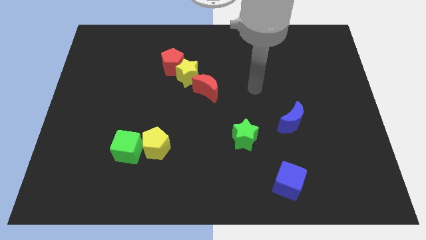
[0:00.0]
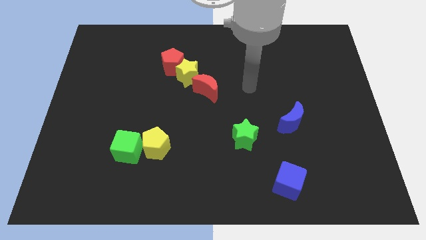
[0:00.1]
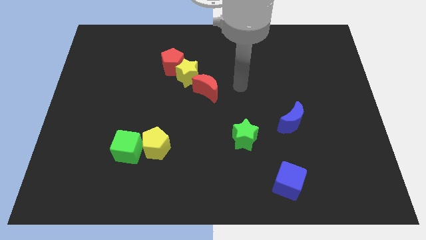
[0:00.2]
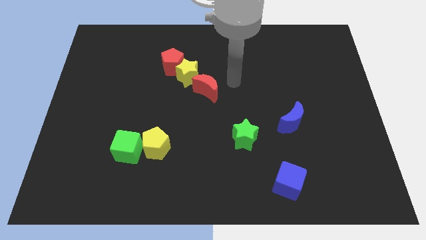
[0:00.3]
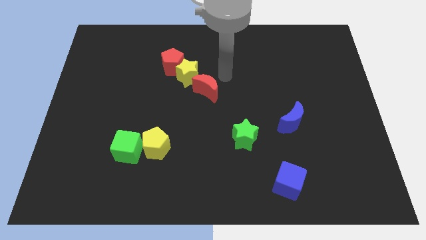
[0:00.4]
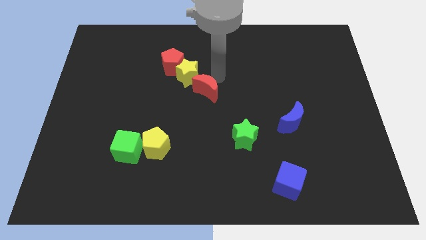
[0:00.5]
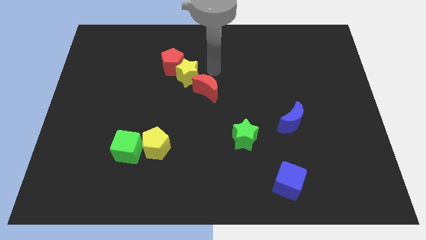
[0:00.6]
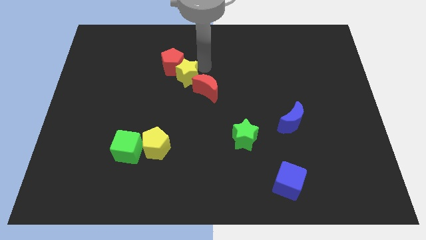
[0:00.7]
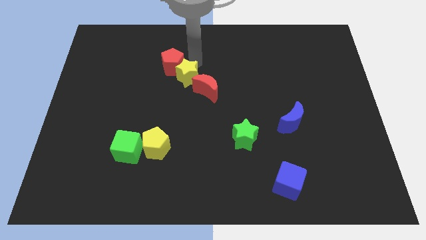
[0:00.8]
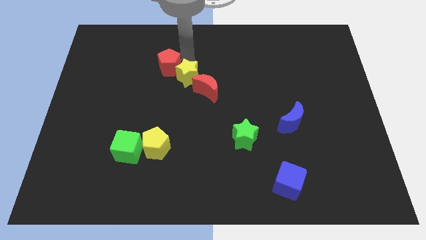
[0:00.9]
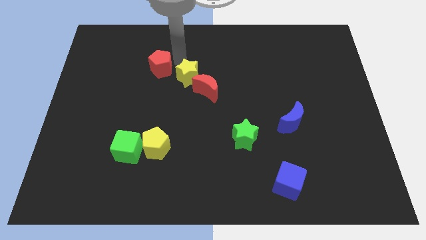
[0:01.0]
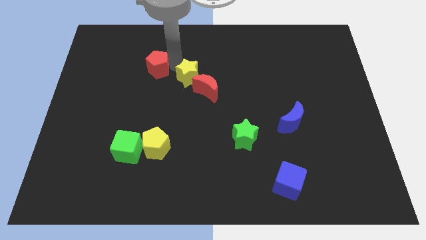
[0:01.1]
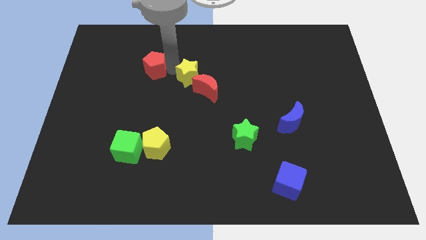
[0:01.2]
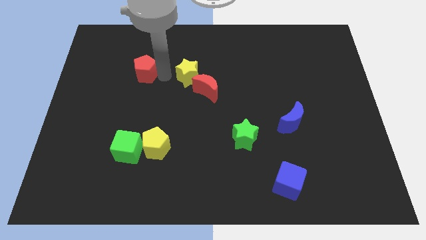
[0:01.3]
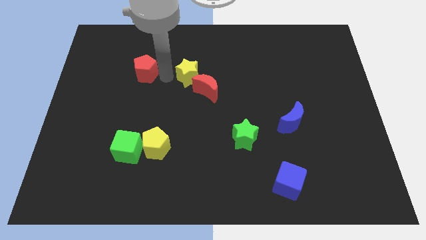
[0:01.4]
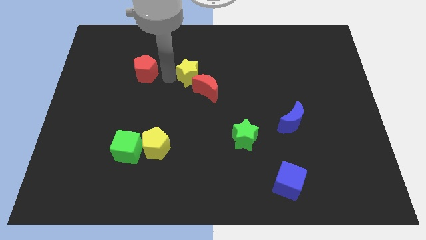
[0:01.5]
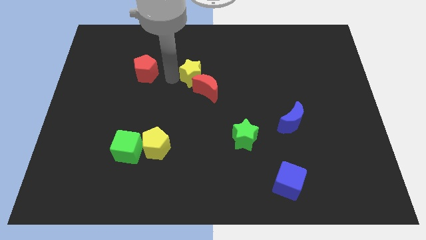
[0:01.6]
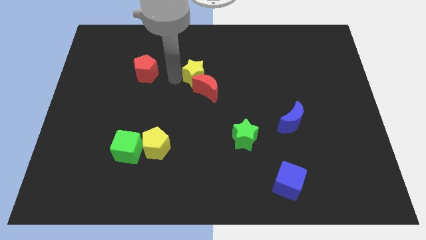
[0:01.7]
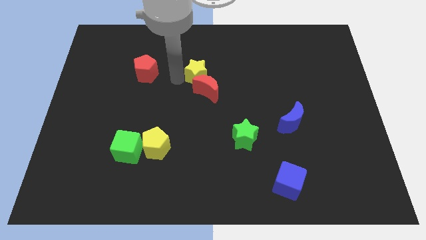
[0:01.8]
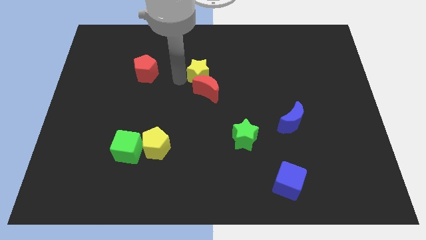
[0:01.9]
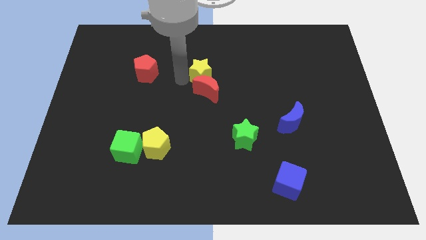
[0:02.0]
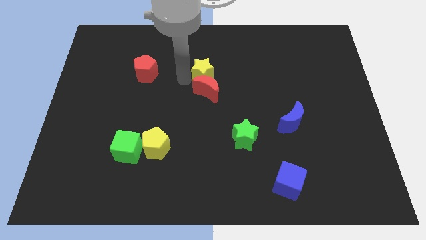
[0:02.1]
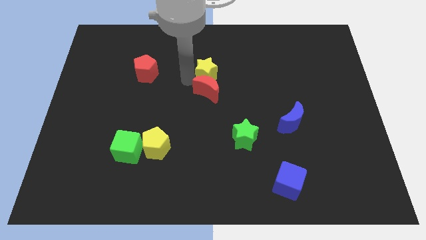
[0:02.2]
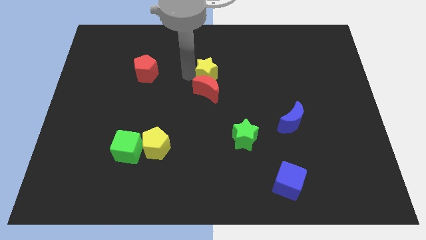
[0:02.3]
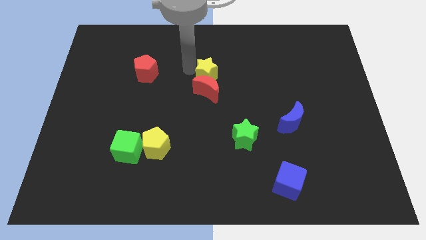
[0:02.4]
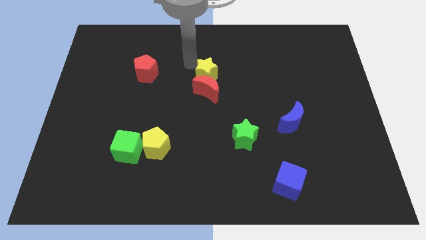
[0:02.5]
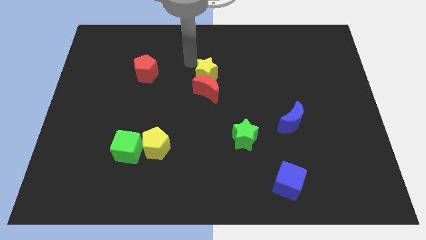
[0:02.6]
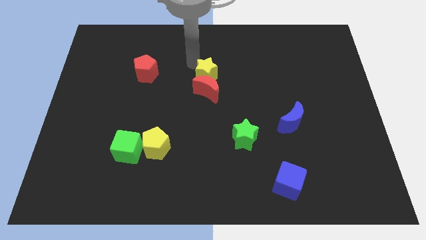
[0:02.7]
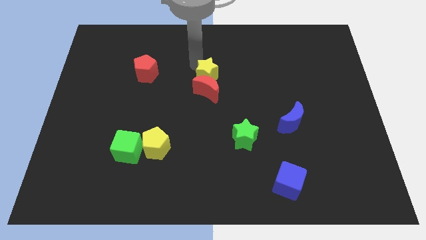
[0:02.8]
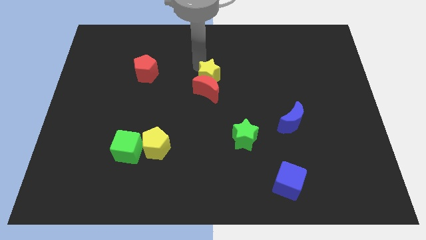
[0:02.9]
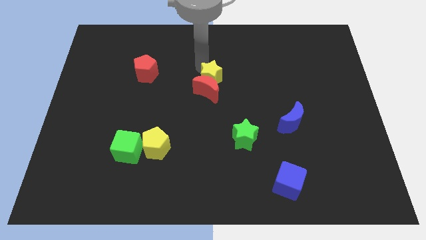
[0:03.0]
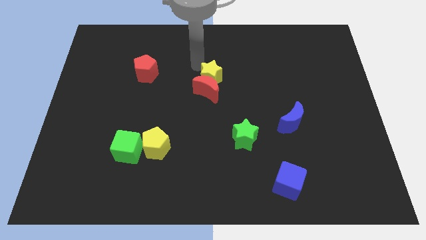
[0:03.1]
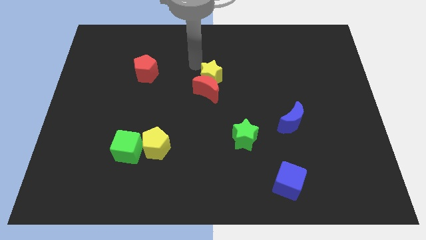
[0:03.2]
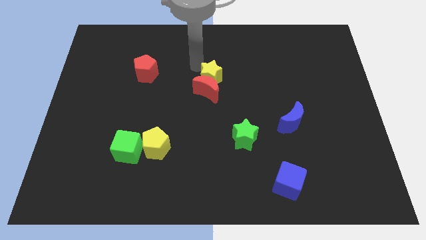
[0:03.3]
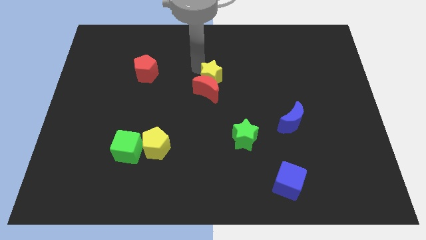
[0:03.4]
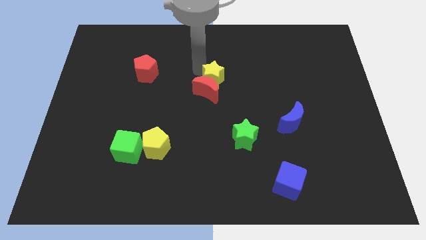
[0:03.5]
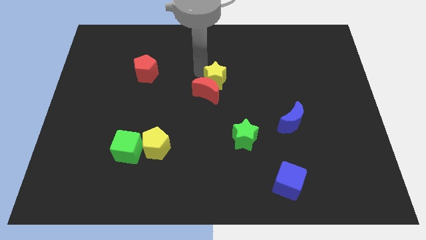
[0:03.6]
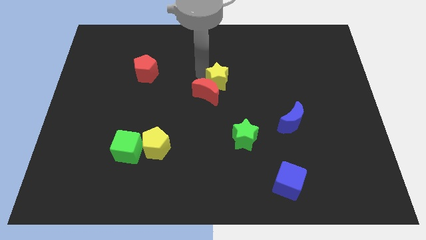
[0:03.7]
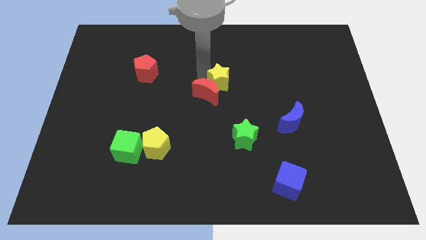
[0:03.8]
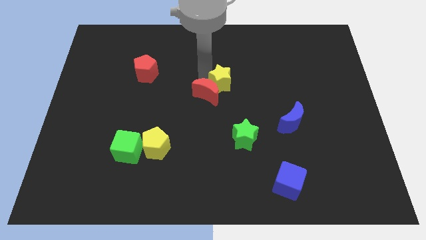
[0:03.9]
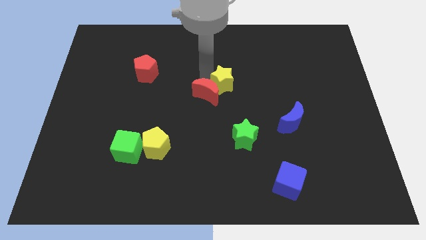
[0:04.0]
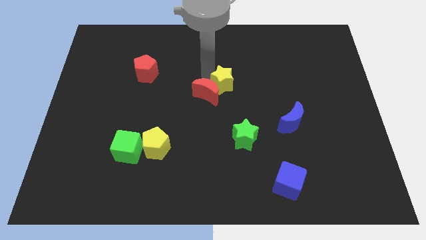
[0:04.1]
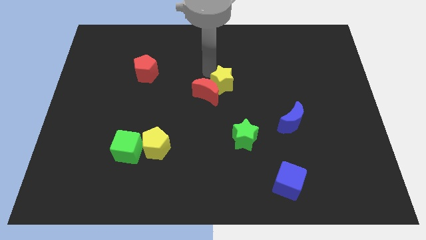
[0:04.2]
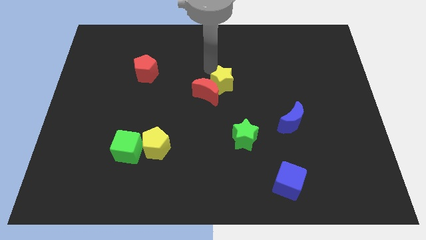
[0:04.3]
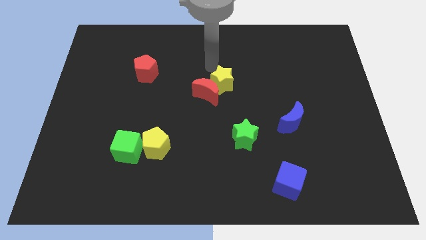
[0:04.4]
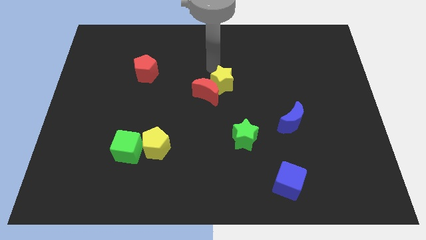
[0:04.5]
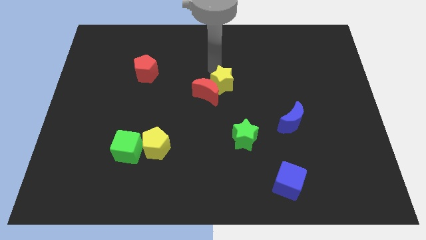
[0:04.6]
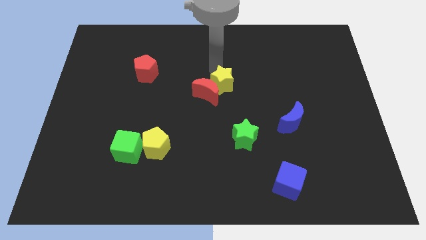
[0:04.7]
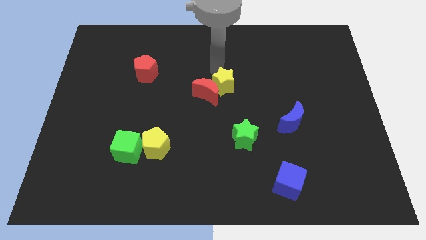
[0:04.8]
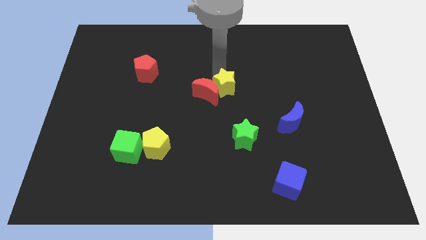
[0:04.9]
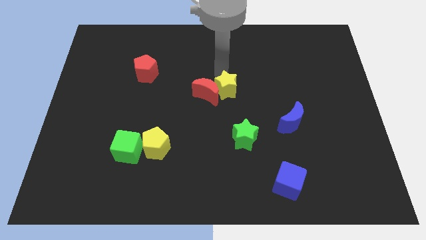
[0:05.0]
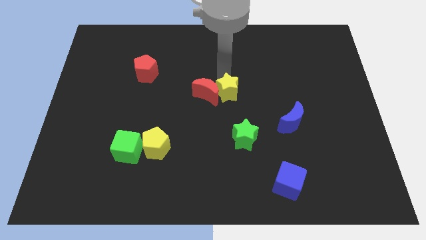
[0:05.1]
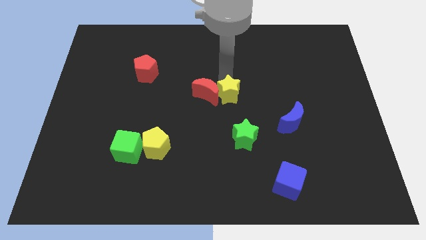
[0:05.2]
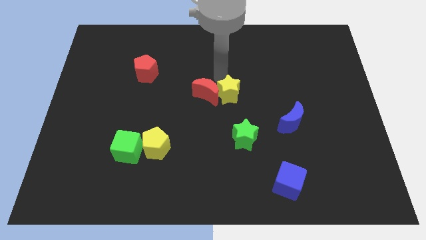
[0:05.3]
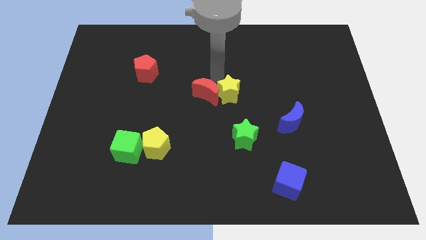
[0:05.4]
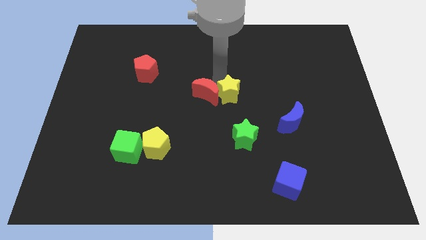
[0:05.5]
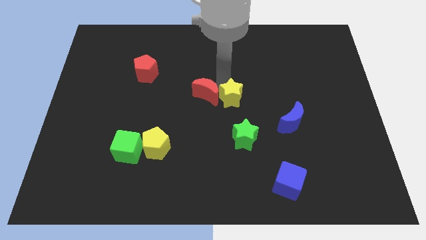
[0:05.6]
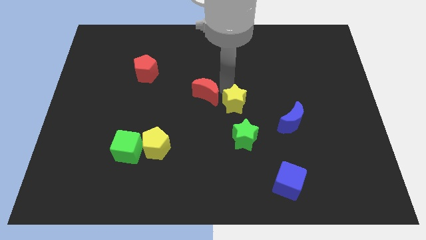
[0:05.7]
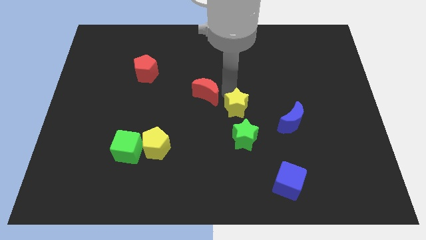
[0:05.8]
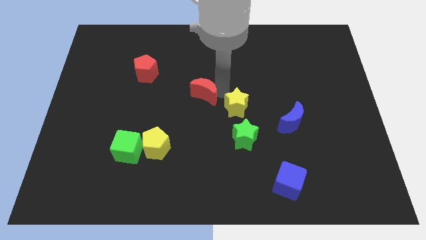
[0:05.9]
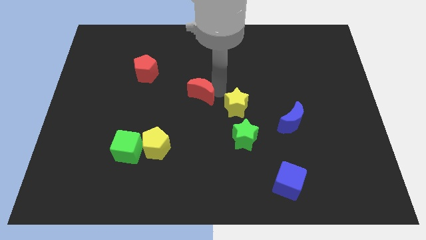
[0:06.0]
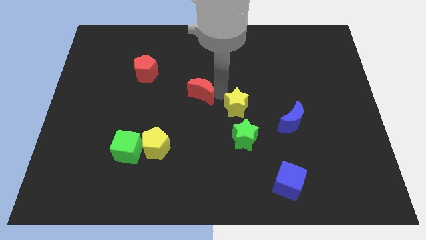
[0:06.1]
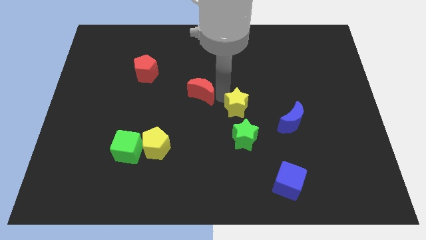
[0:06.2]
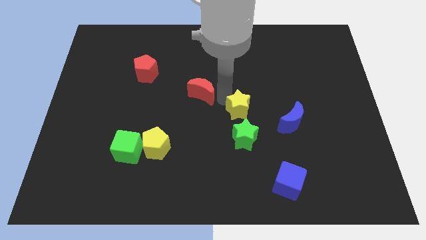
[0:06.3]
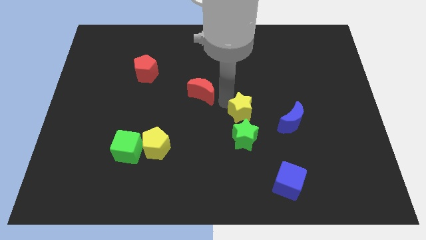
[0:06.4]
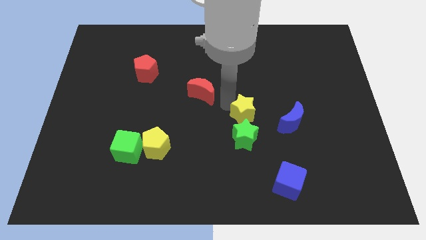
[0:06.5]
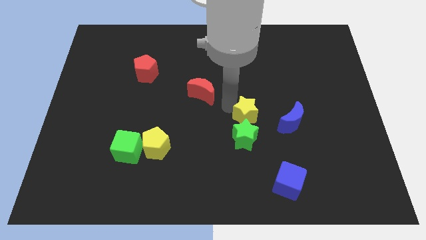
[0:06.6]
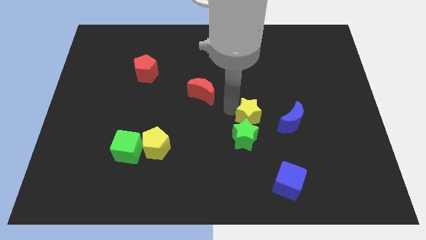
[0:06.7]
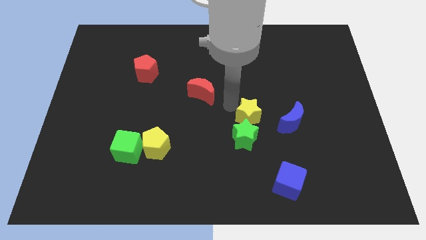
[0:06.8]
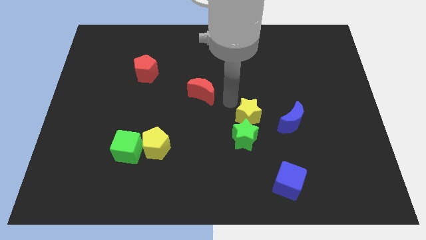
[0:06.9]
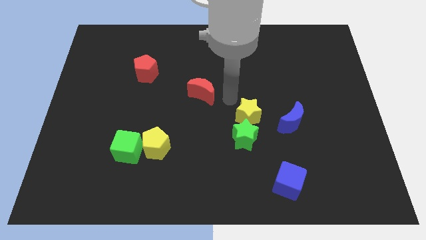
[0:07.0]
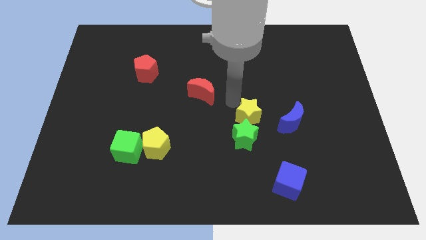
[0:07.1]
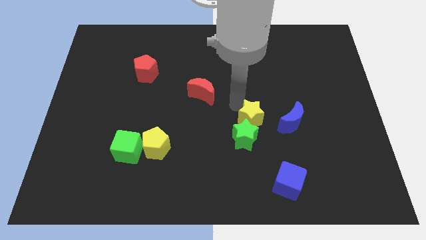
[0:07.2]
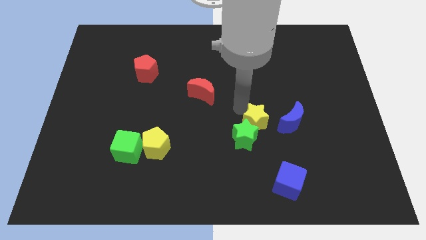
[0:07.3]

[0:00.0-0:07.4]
push the yellow star downwards and right diagonally

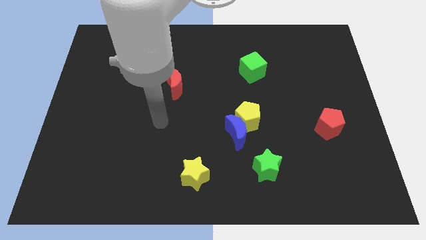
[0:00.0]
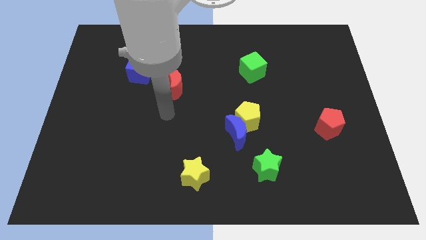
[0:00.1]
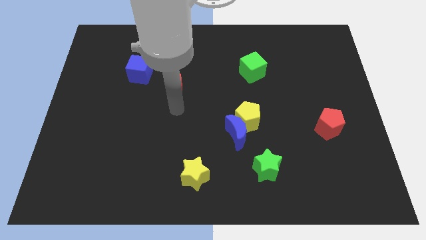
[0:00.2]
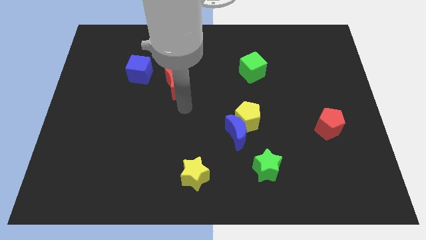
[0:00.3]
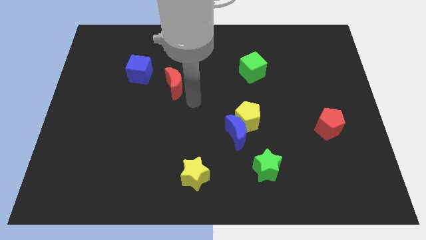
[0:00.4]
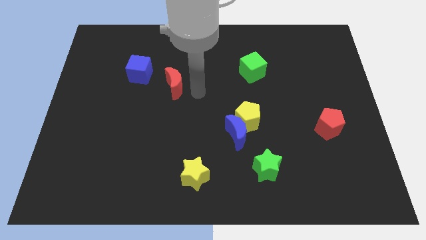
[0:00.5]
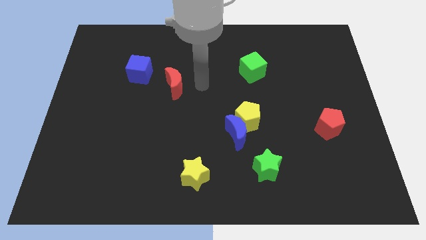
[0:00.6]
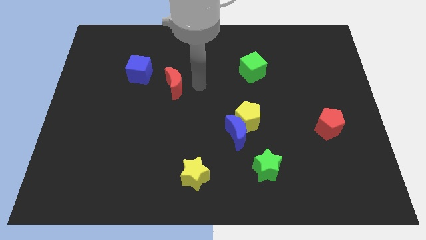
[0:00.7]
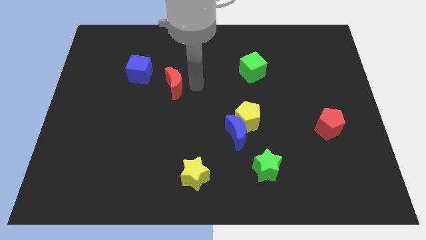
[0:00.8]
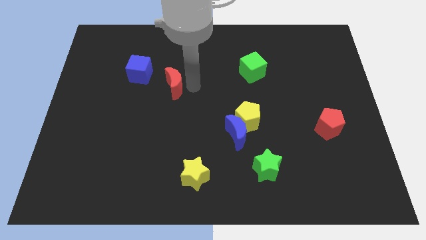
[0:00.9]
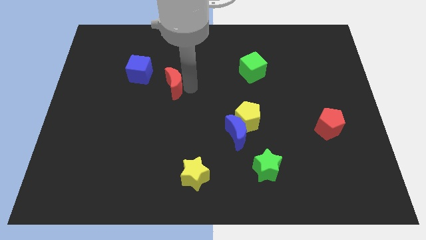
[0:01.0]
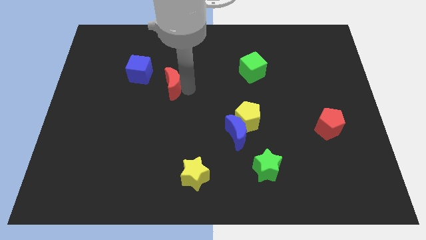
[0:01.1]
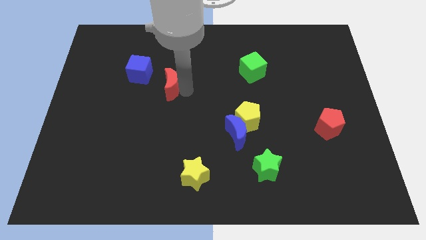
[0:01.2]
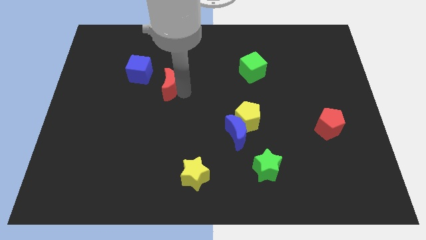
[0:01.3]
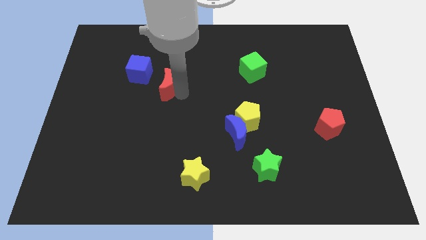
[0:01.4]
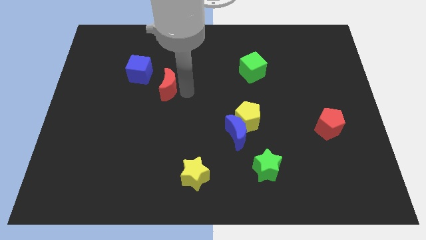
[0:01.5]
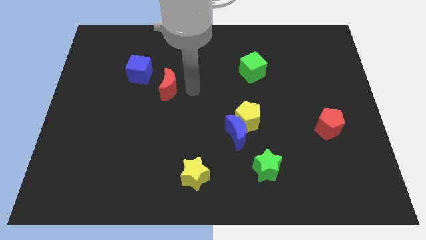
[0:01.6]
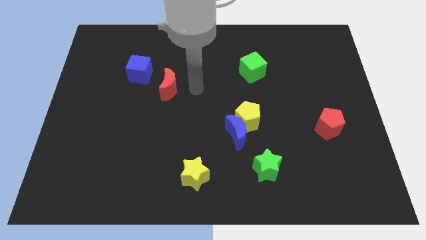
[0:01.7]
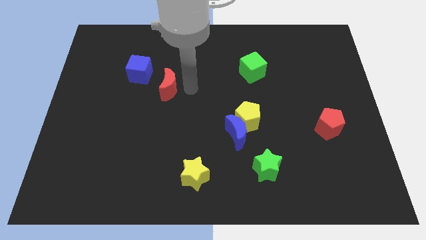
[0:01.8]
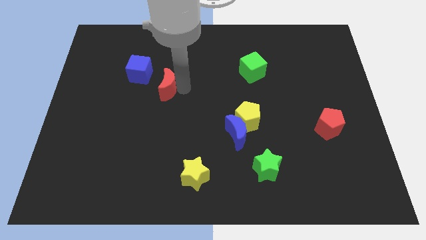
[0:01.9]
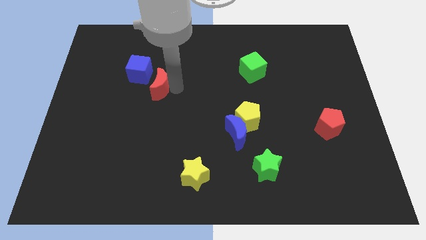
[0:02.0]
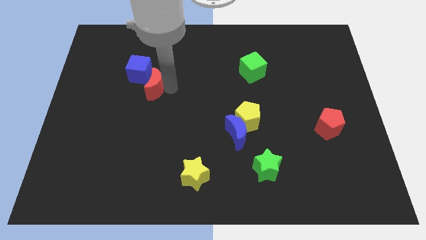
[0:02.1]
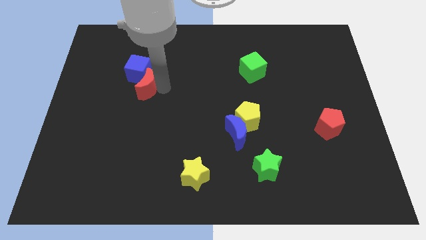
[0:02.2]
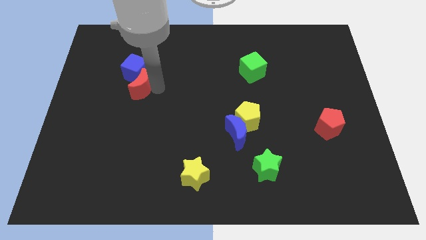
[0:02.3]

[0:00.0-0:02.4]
push the red moon a little bit left
